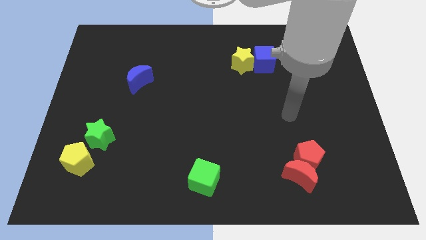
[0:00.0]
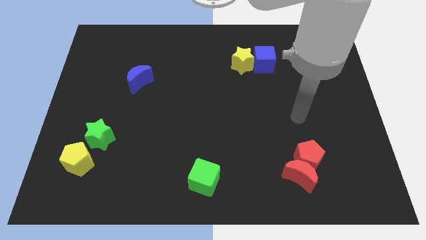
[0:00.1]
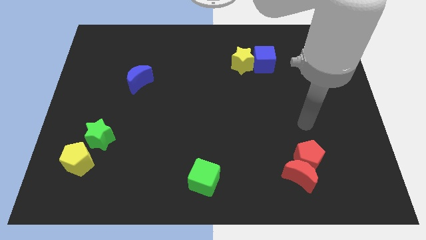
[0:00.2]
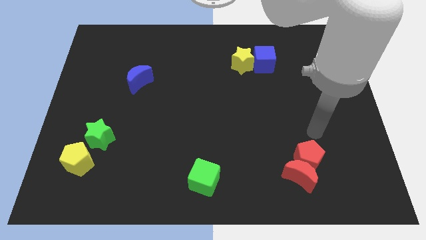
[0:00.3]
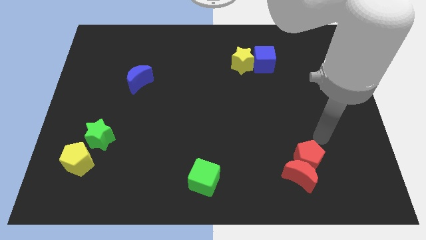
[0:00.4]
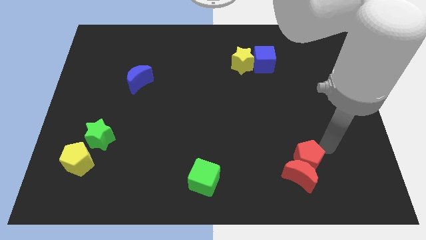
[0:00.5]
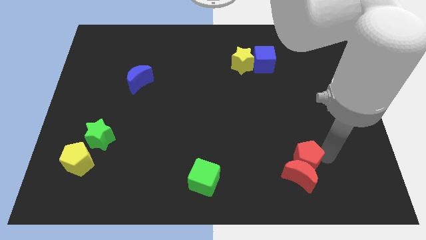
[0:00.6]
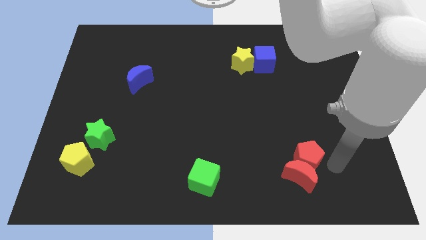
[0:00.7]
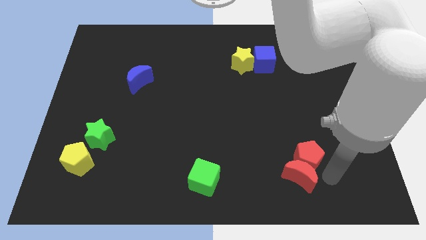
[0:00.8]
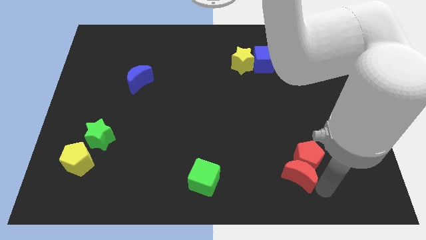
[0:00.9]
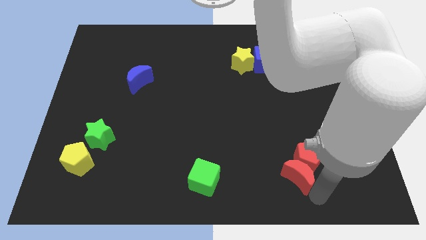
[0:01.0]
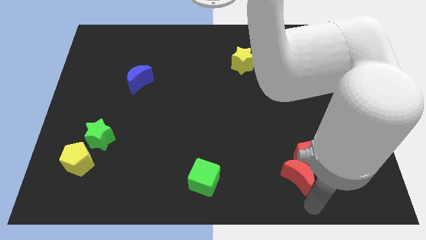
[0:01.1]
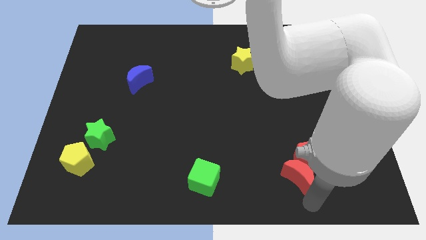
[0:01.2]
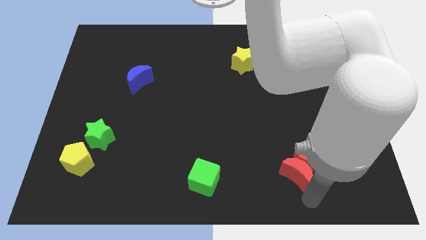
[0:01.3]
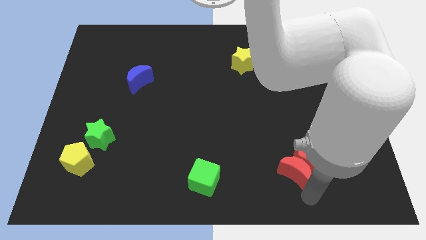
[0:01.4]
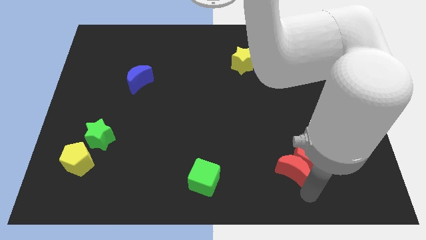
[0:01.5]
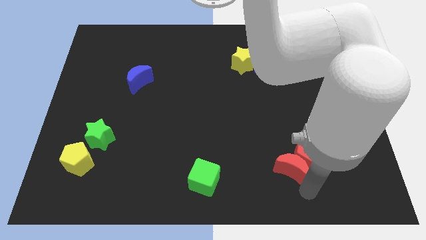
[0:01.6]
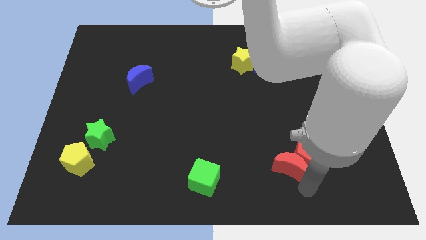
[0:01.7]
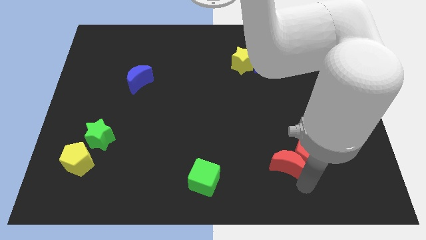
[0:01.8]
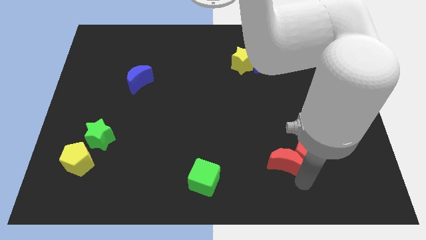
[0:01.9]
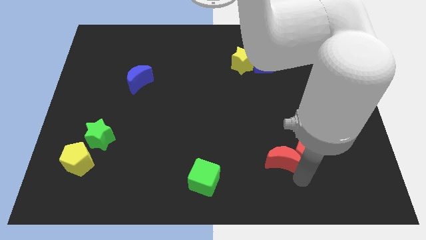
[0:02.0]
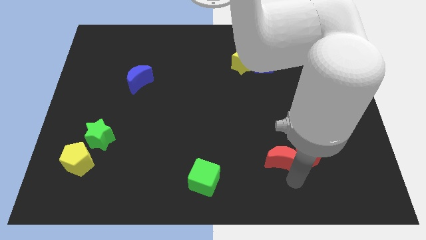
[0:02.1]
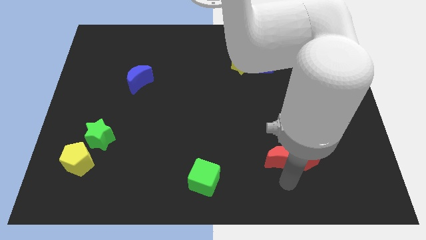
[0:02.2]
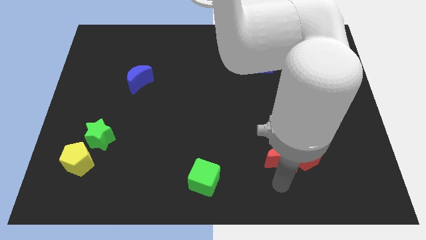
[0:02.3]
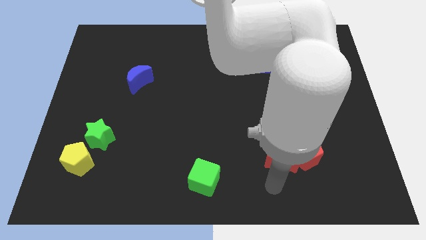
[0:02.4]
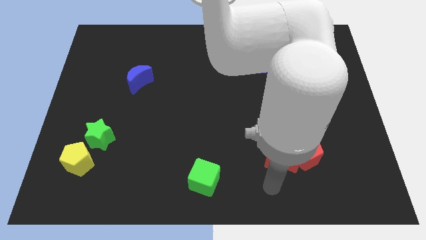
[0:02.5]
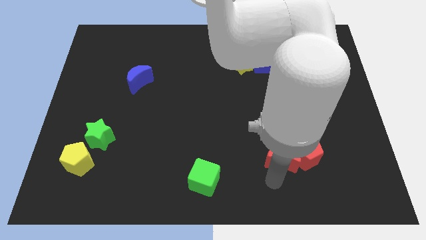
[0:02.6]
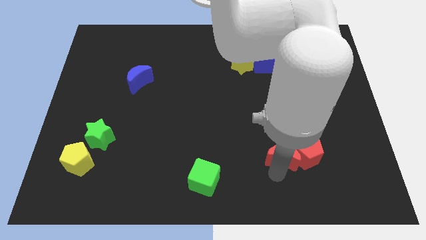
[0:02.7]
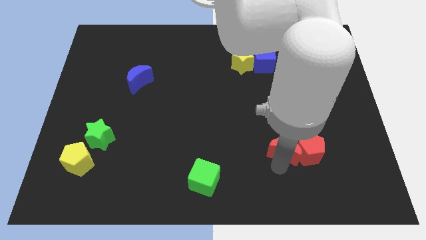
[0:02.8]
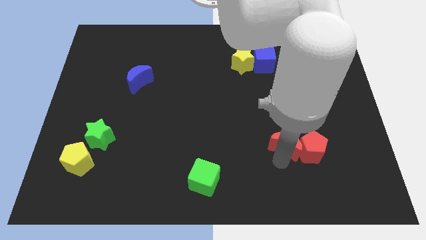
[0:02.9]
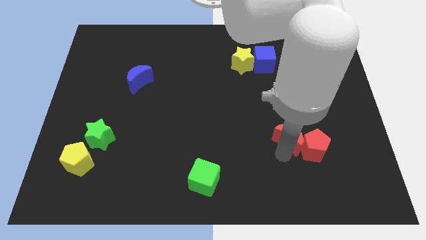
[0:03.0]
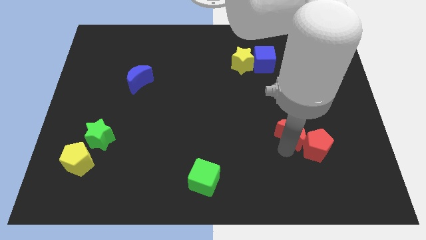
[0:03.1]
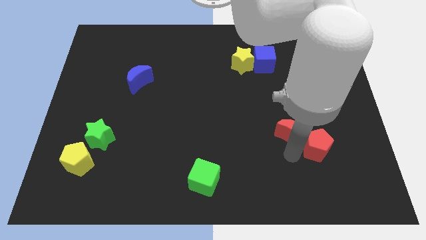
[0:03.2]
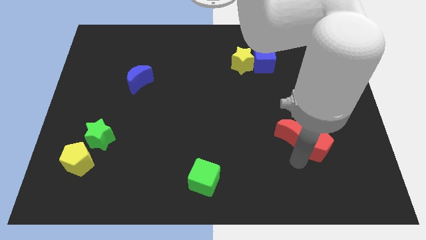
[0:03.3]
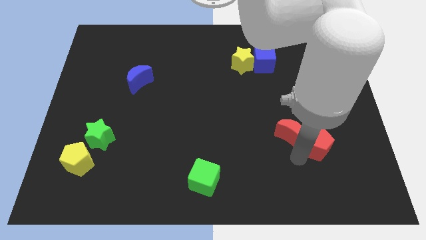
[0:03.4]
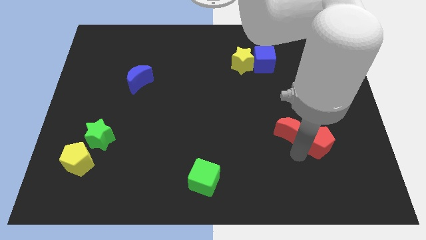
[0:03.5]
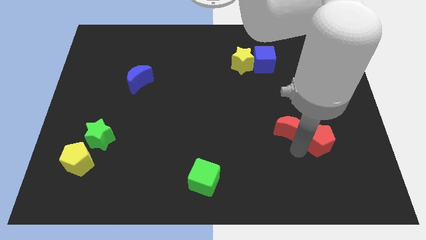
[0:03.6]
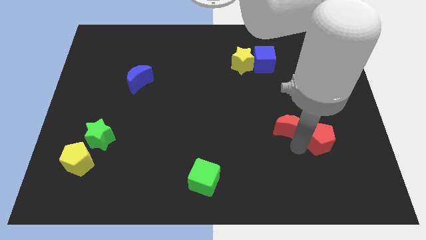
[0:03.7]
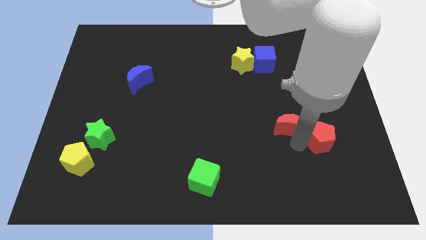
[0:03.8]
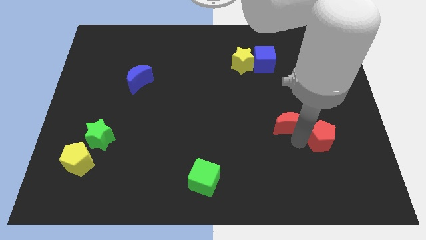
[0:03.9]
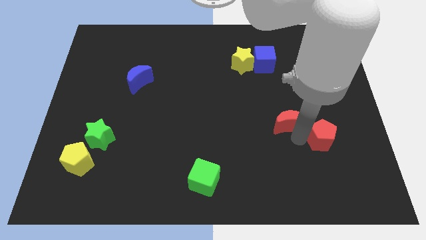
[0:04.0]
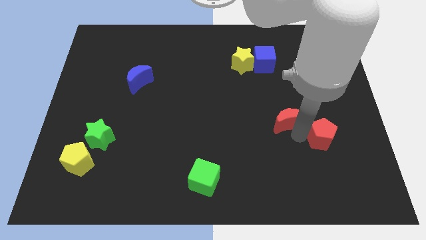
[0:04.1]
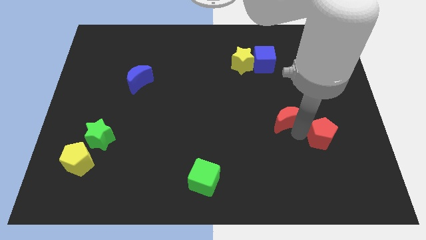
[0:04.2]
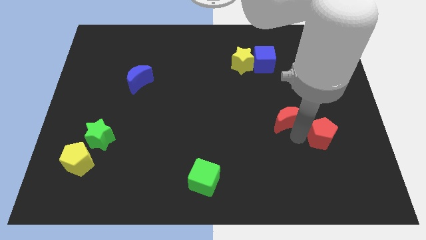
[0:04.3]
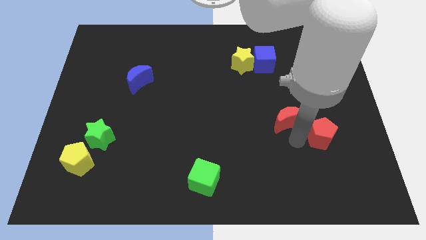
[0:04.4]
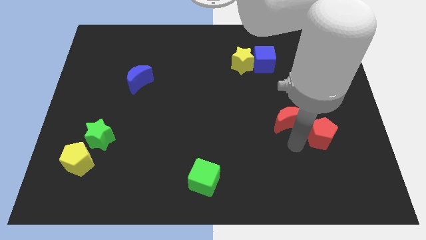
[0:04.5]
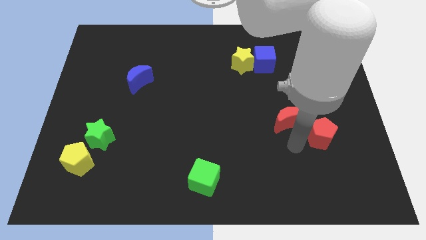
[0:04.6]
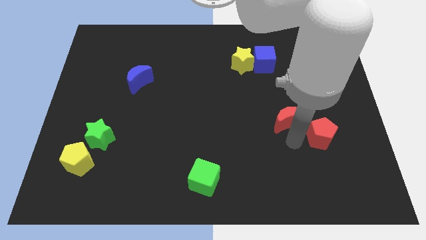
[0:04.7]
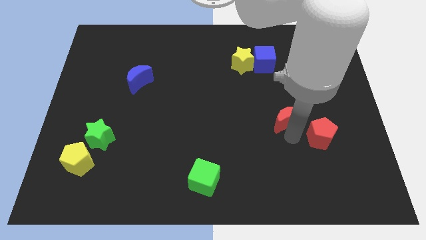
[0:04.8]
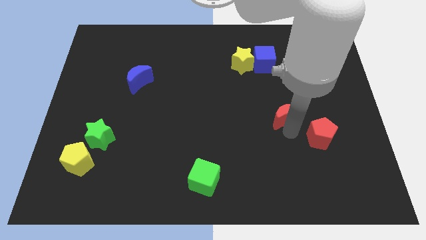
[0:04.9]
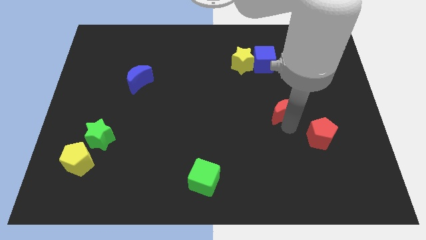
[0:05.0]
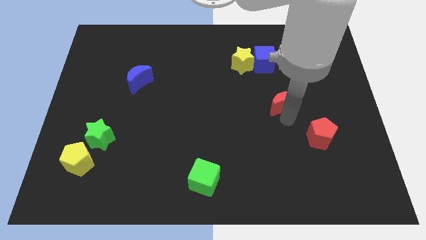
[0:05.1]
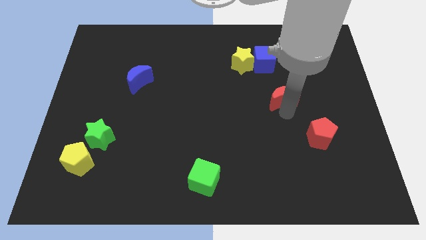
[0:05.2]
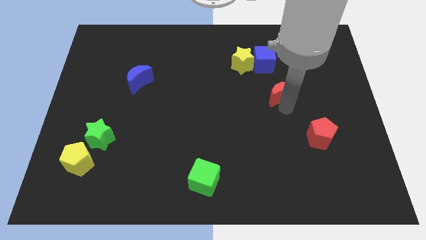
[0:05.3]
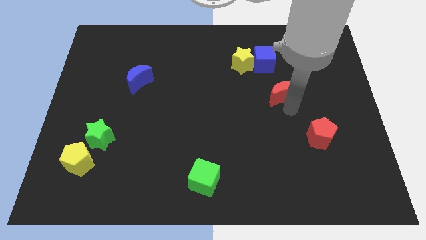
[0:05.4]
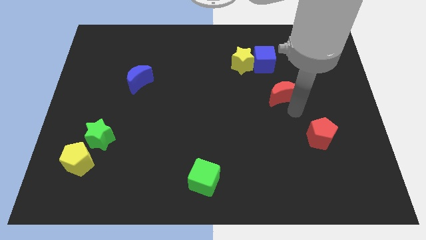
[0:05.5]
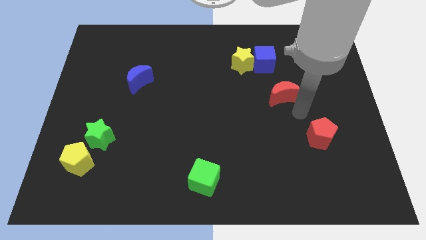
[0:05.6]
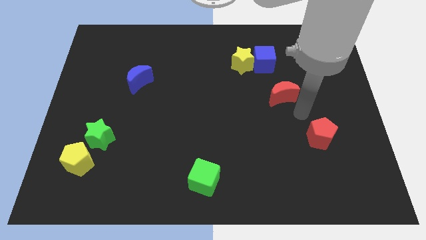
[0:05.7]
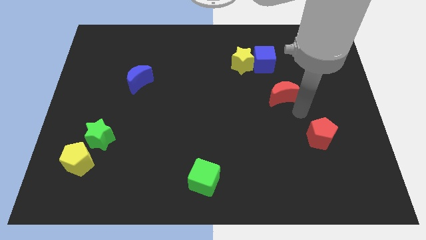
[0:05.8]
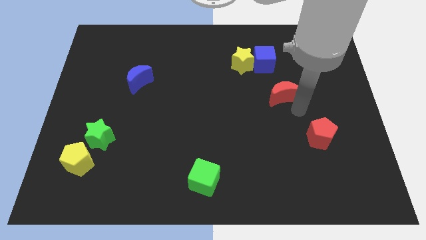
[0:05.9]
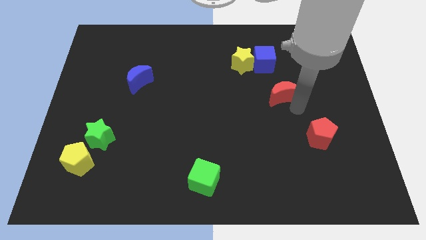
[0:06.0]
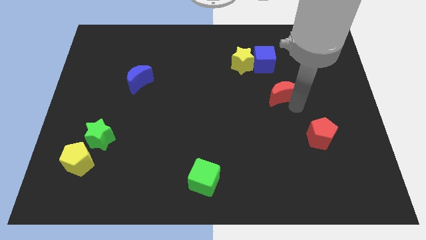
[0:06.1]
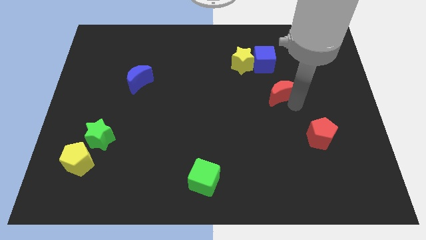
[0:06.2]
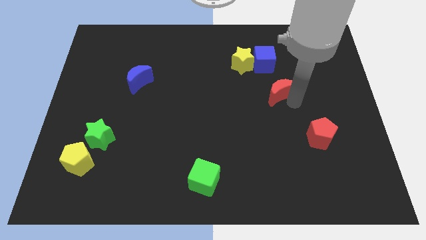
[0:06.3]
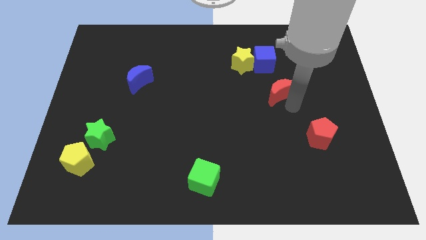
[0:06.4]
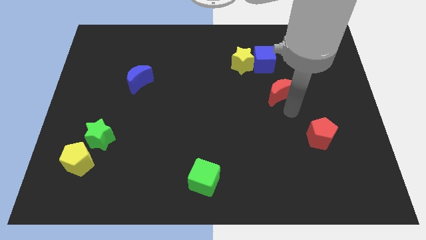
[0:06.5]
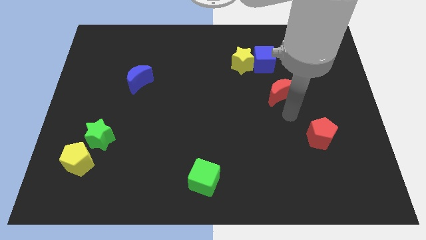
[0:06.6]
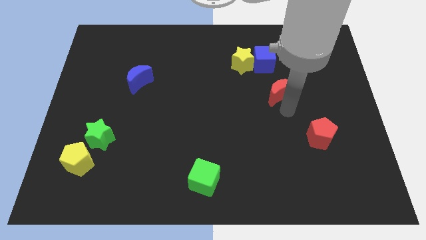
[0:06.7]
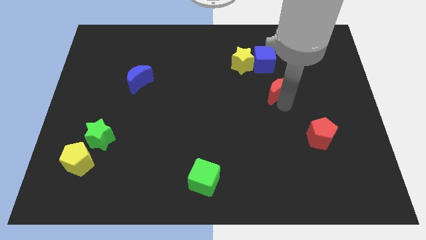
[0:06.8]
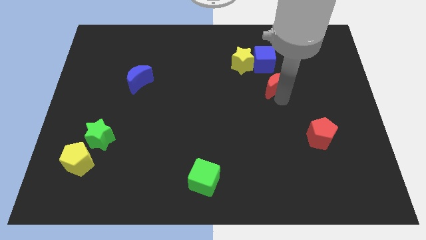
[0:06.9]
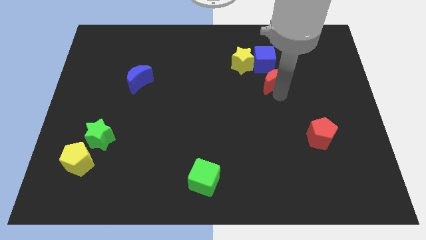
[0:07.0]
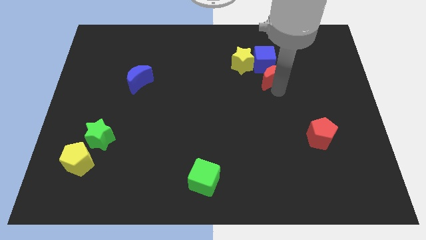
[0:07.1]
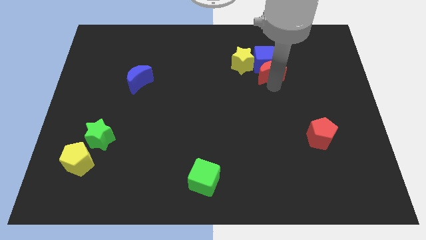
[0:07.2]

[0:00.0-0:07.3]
move the red moon just right of the yellow star
